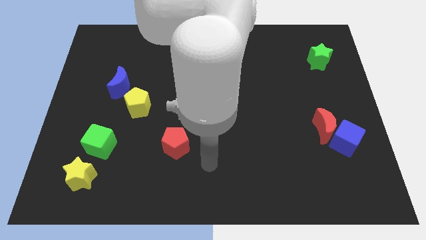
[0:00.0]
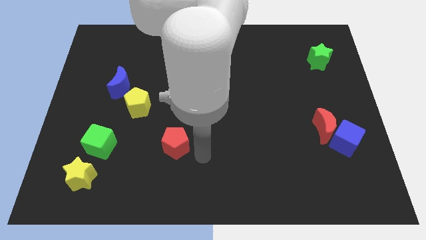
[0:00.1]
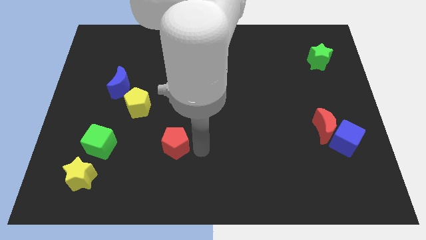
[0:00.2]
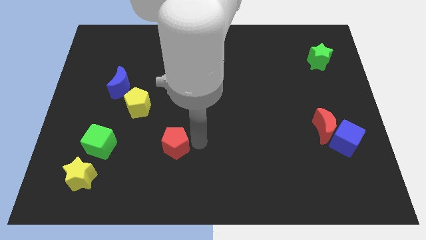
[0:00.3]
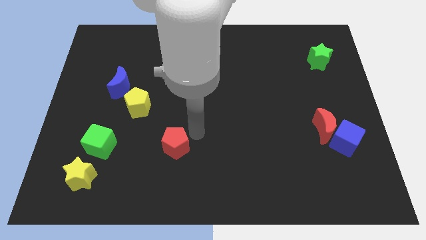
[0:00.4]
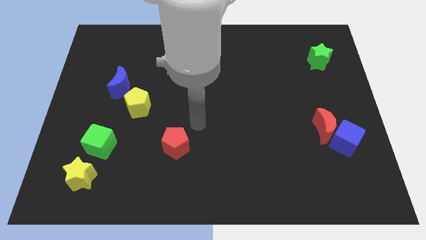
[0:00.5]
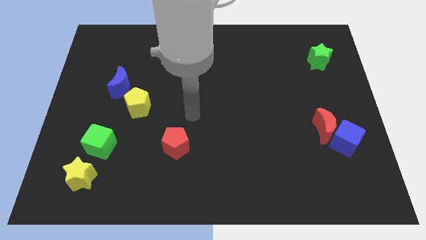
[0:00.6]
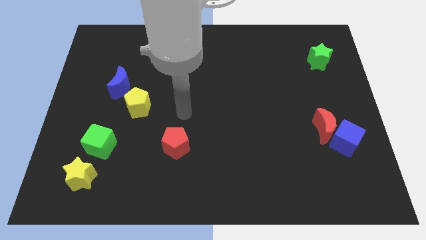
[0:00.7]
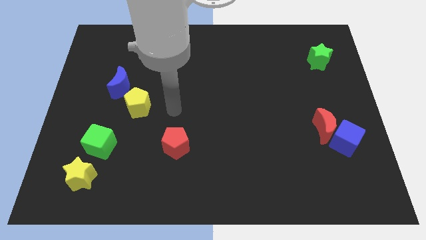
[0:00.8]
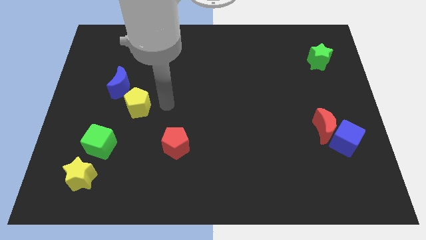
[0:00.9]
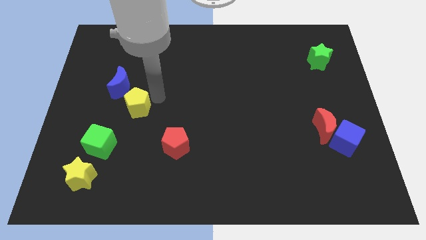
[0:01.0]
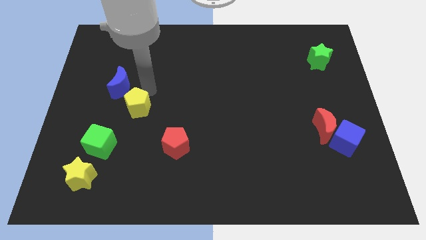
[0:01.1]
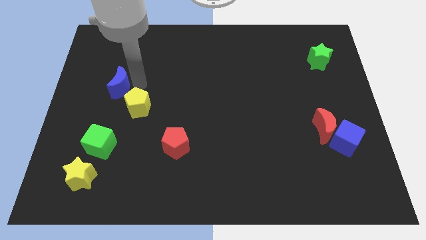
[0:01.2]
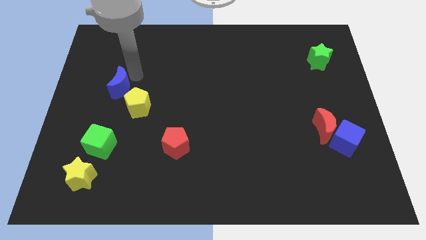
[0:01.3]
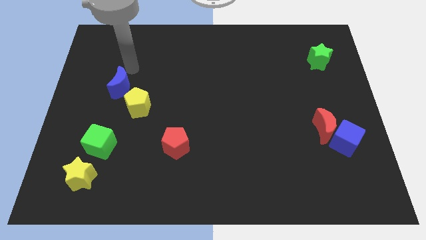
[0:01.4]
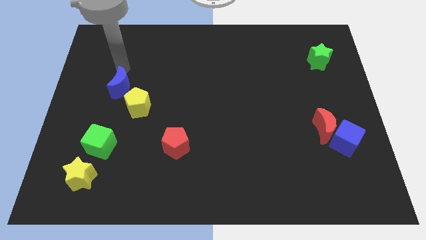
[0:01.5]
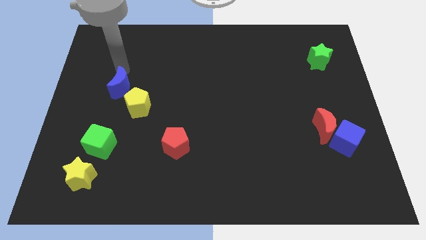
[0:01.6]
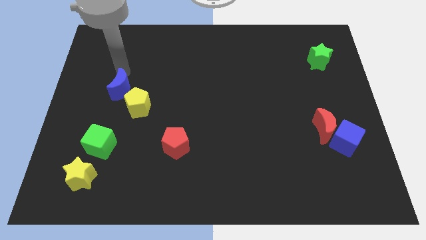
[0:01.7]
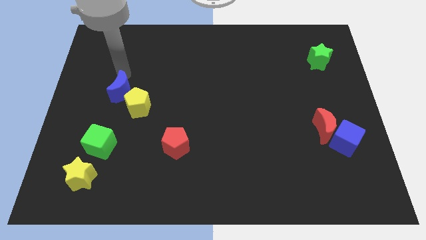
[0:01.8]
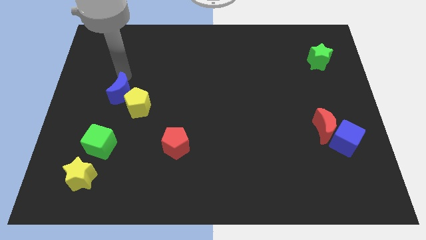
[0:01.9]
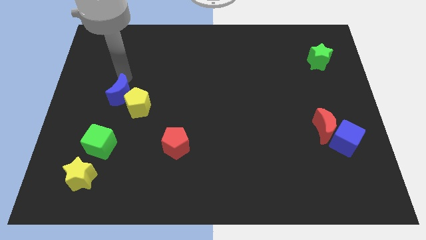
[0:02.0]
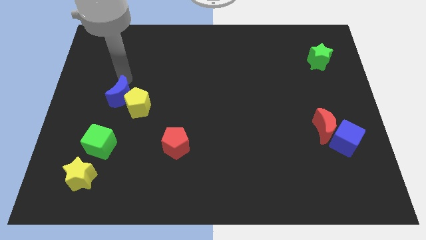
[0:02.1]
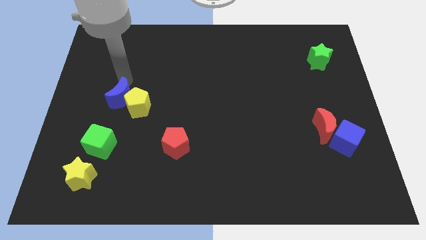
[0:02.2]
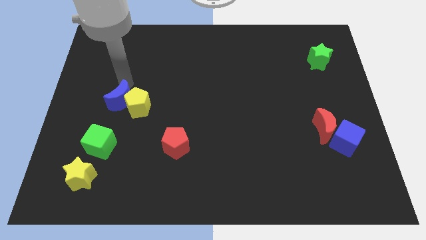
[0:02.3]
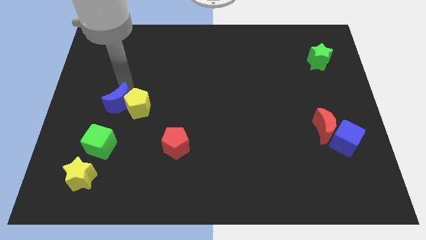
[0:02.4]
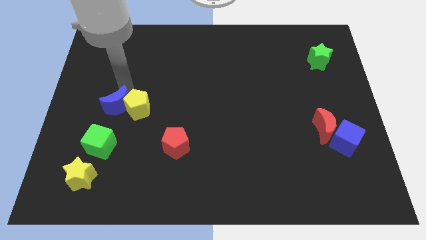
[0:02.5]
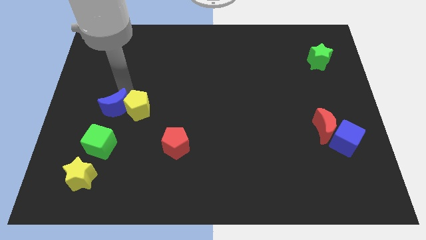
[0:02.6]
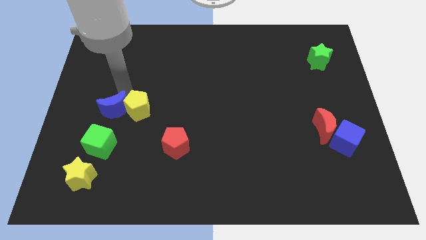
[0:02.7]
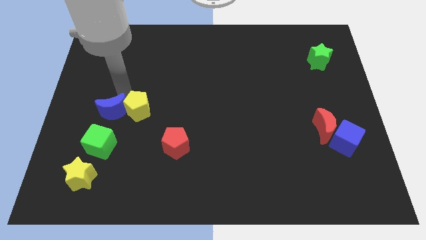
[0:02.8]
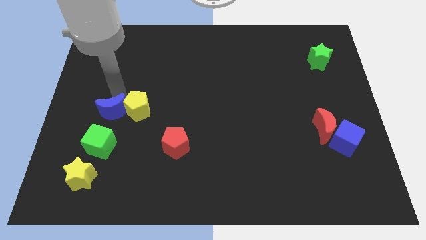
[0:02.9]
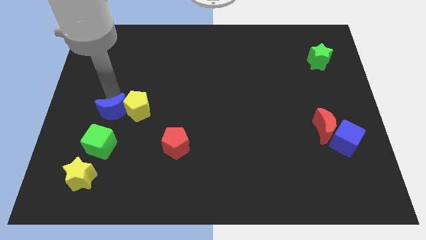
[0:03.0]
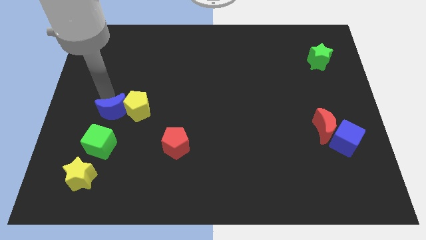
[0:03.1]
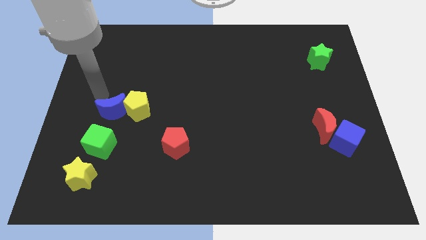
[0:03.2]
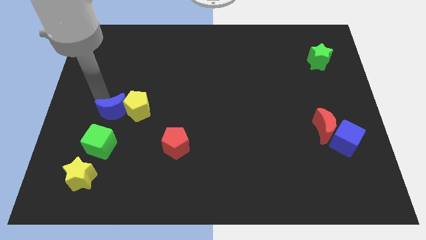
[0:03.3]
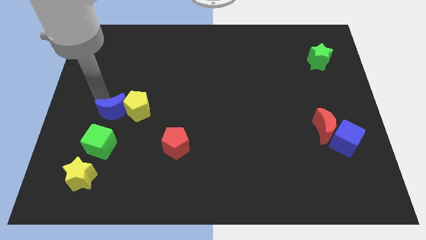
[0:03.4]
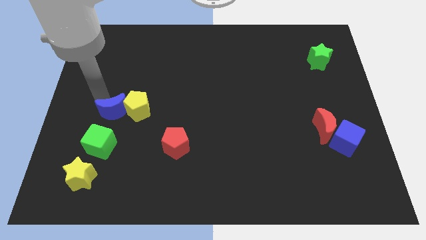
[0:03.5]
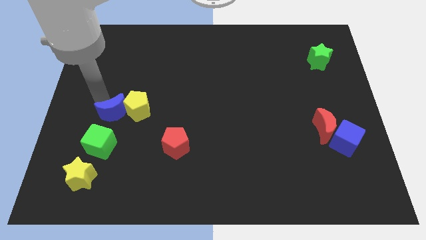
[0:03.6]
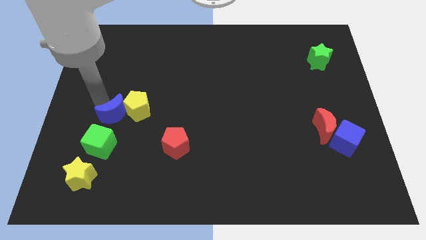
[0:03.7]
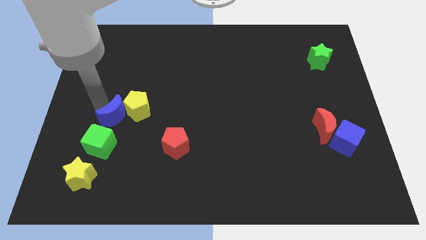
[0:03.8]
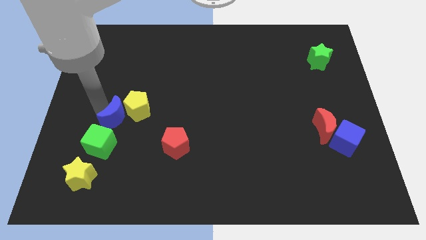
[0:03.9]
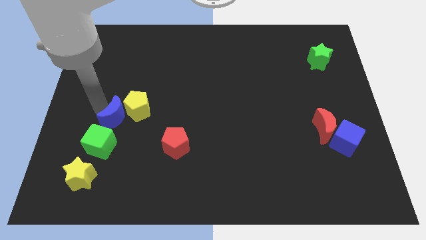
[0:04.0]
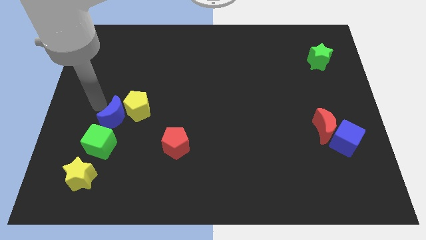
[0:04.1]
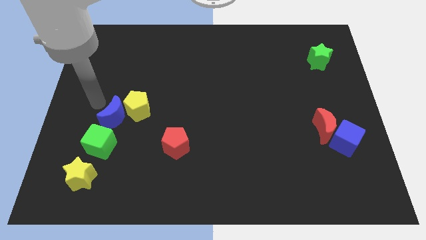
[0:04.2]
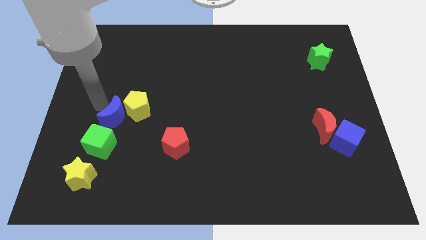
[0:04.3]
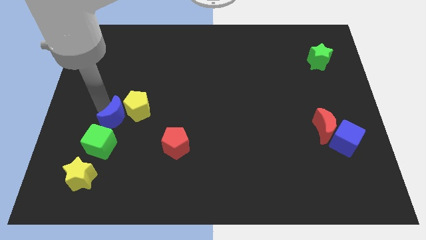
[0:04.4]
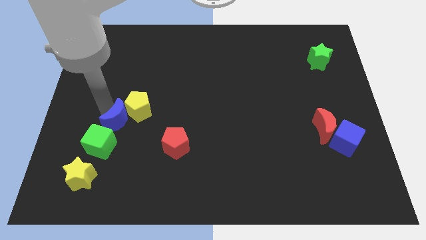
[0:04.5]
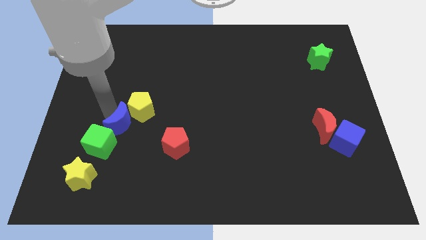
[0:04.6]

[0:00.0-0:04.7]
push the blue moon below the yellow pentagon

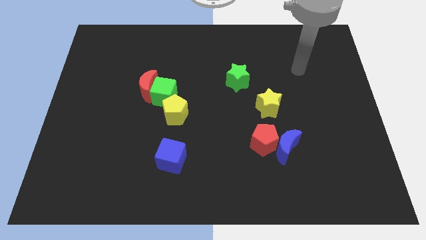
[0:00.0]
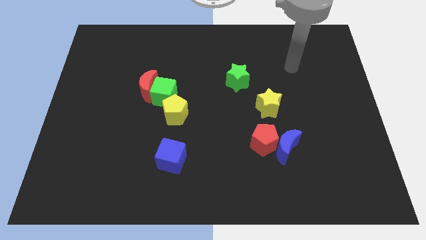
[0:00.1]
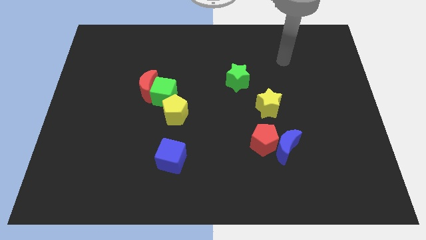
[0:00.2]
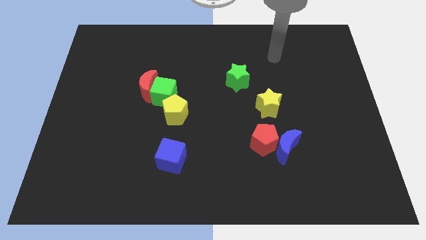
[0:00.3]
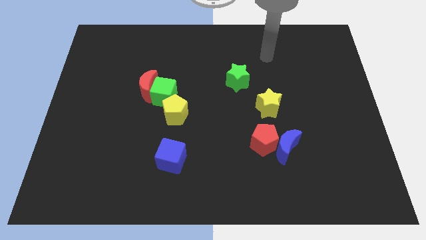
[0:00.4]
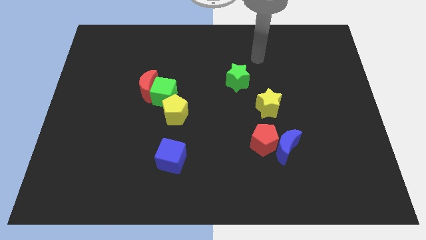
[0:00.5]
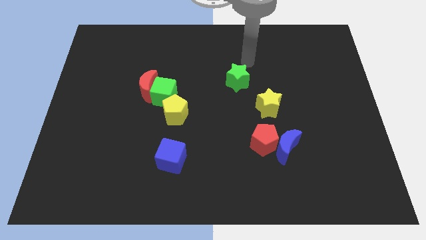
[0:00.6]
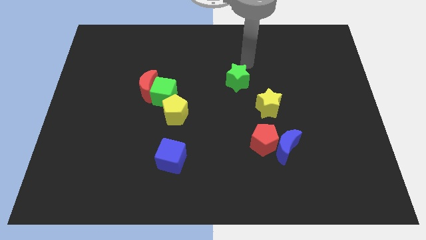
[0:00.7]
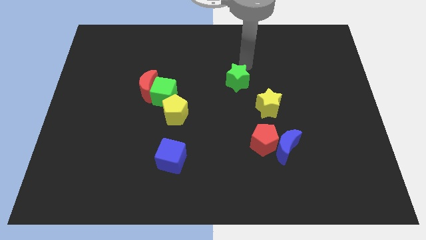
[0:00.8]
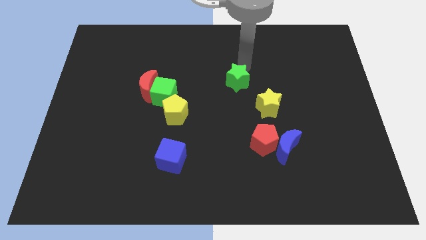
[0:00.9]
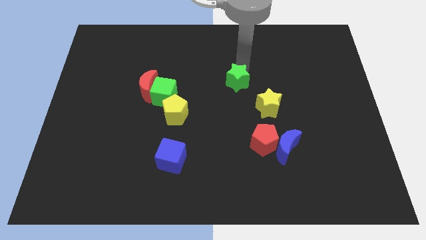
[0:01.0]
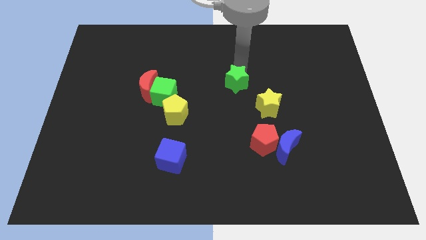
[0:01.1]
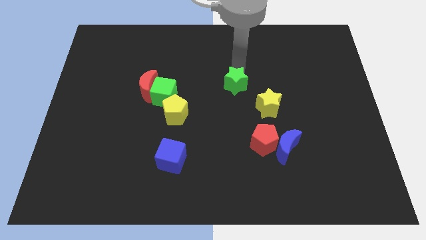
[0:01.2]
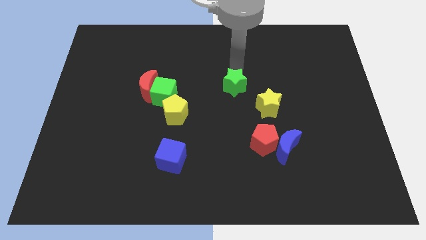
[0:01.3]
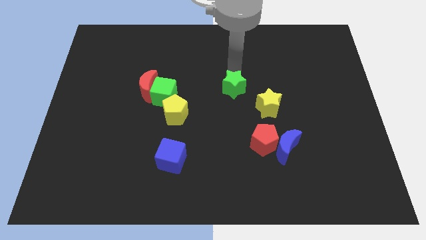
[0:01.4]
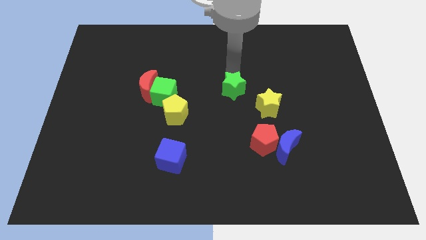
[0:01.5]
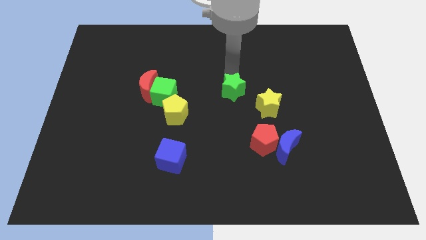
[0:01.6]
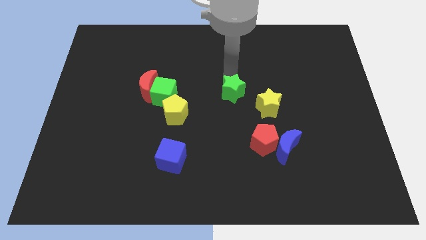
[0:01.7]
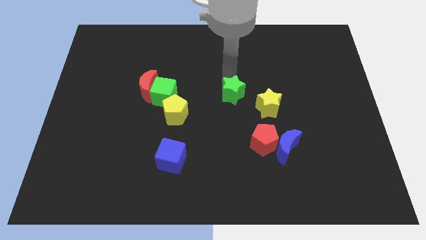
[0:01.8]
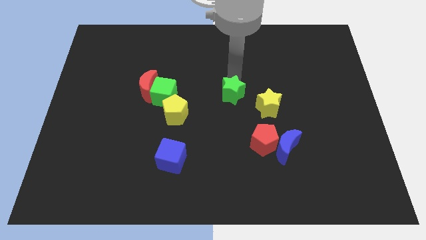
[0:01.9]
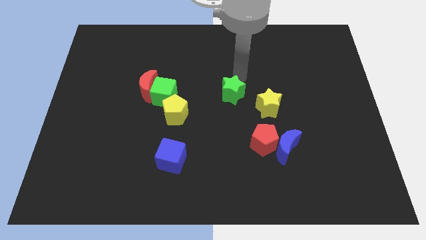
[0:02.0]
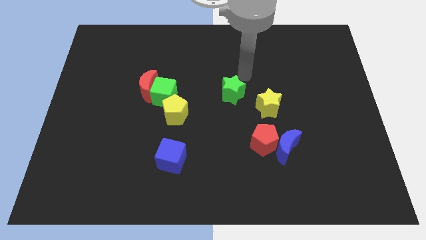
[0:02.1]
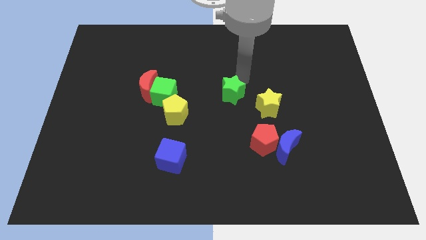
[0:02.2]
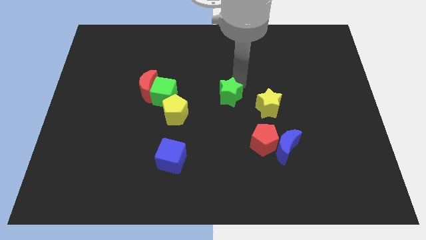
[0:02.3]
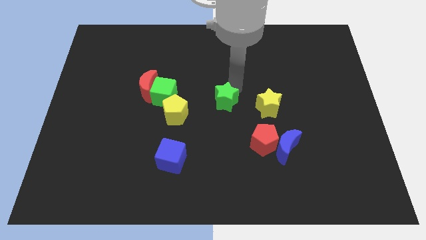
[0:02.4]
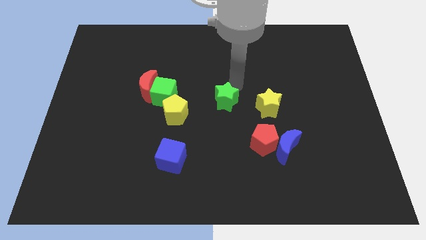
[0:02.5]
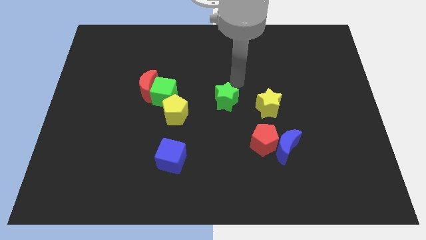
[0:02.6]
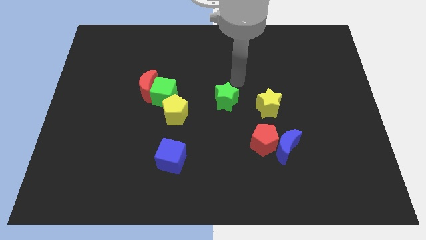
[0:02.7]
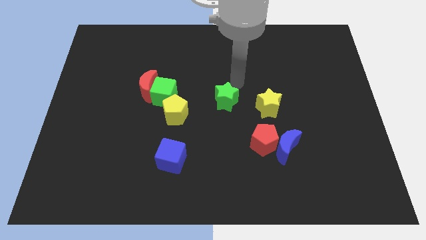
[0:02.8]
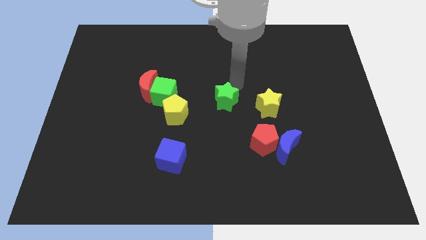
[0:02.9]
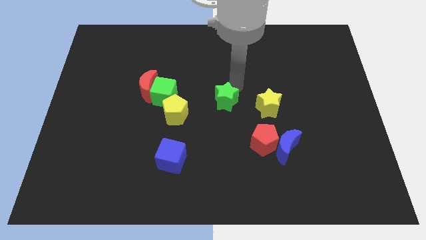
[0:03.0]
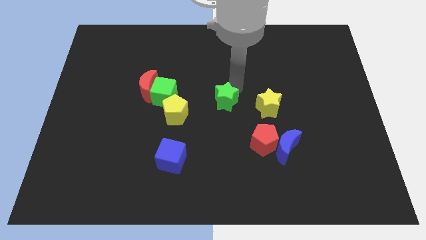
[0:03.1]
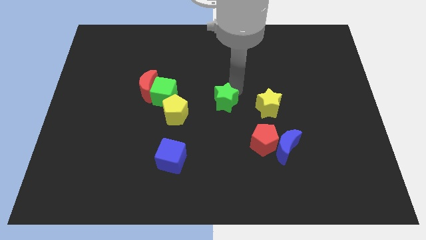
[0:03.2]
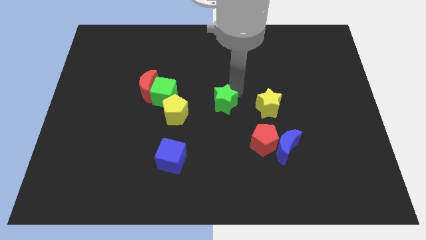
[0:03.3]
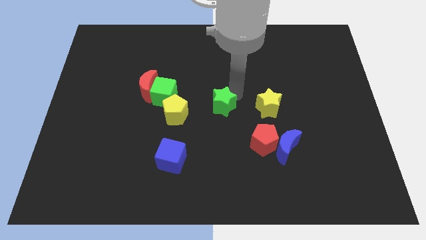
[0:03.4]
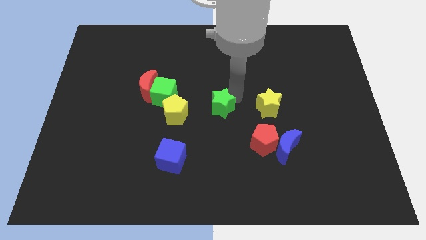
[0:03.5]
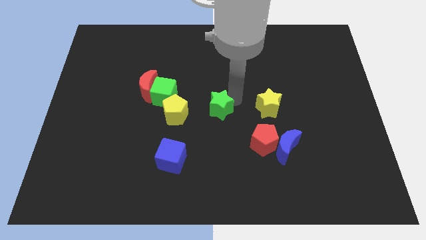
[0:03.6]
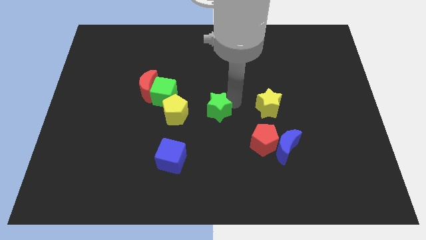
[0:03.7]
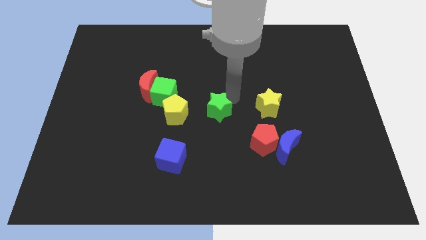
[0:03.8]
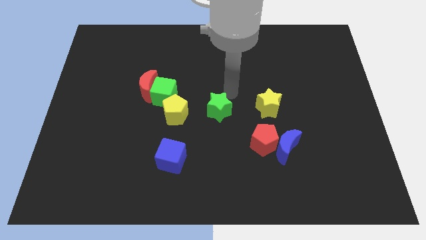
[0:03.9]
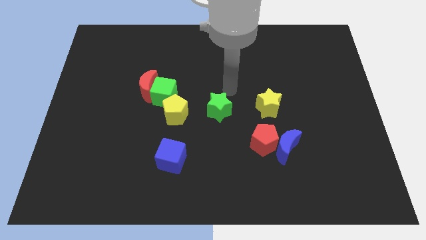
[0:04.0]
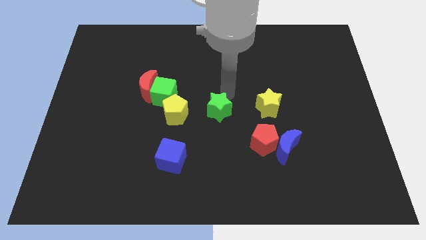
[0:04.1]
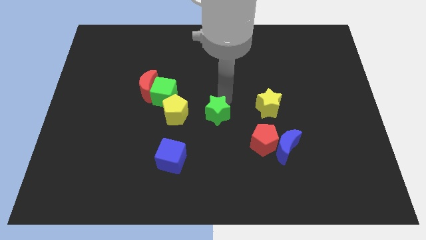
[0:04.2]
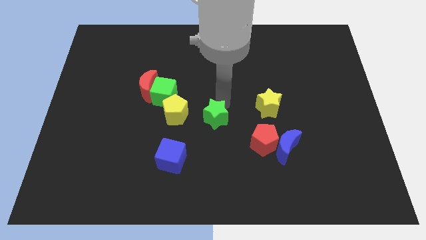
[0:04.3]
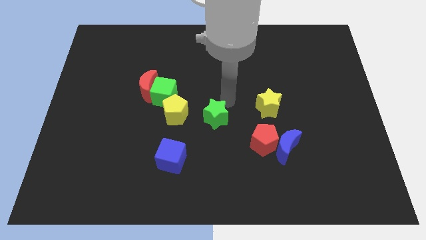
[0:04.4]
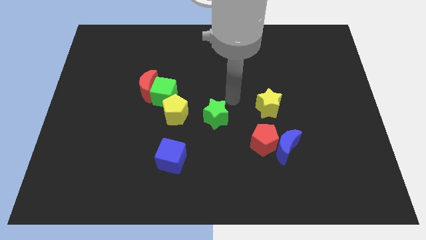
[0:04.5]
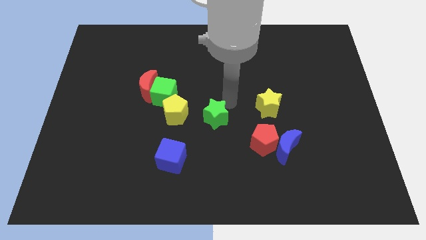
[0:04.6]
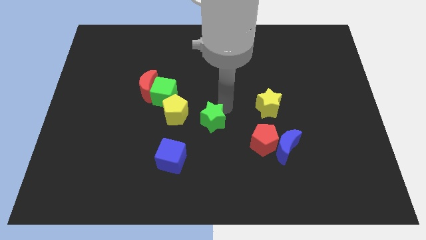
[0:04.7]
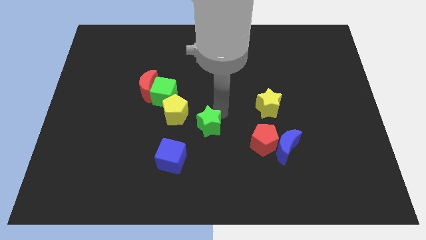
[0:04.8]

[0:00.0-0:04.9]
put the green star to the top right side of the blue cube
